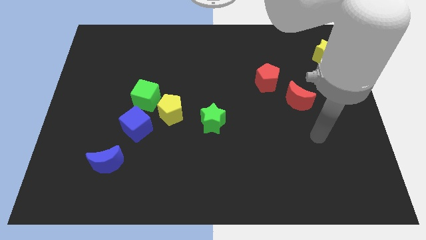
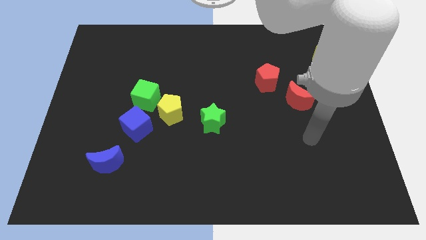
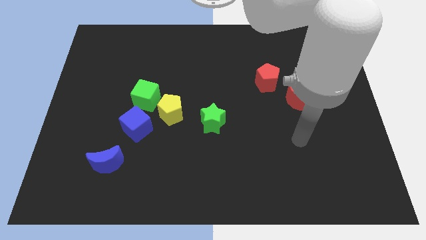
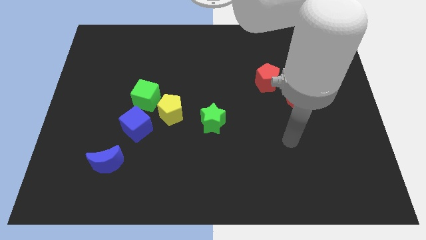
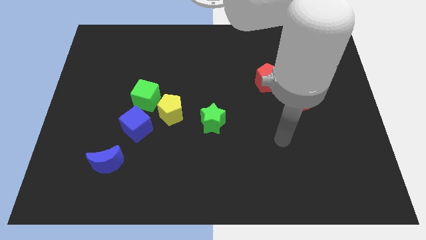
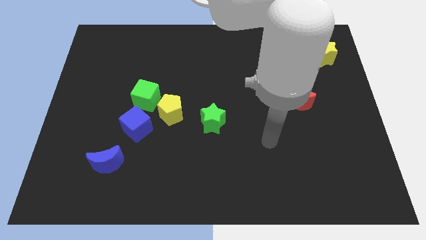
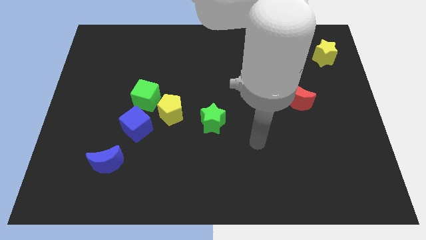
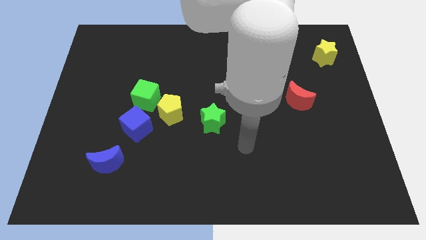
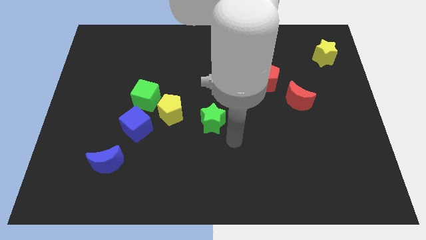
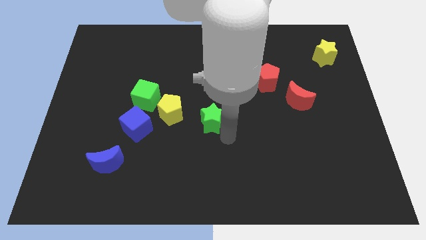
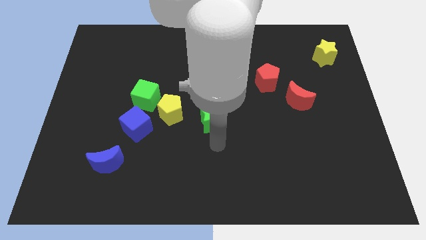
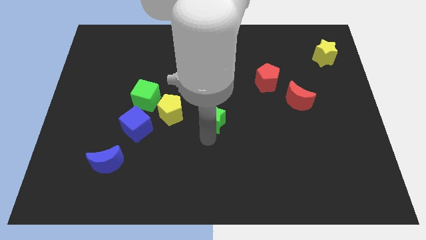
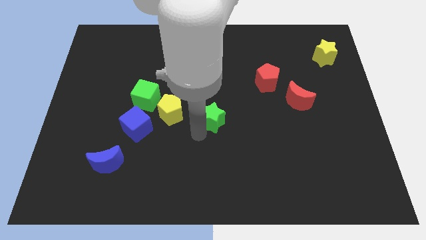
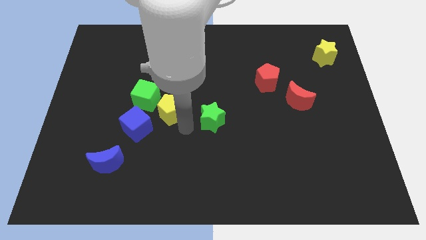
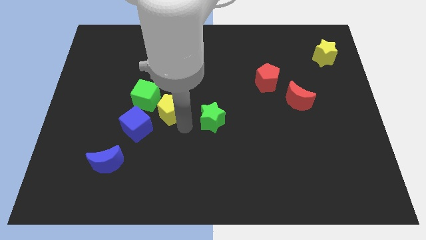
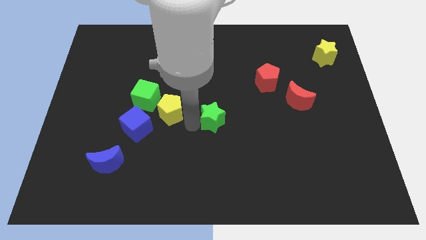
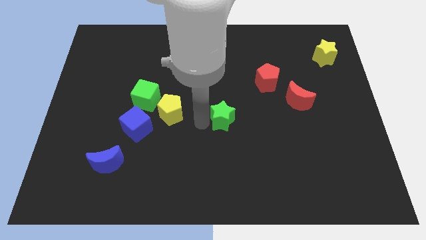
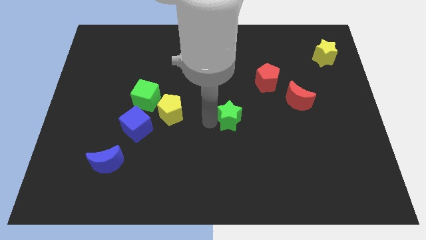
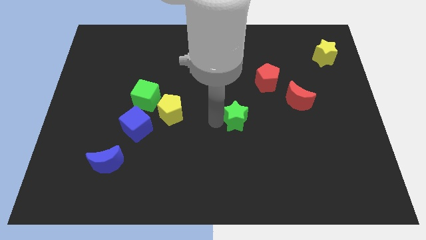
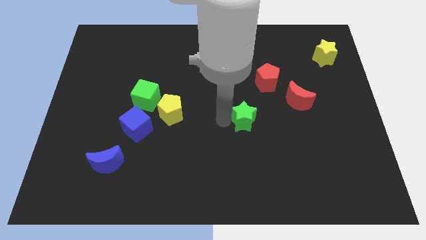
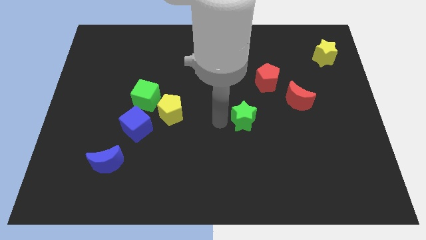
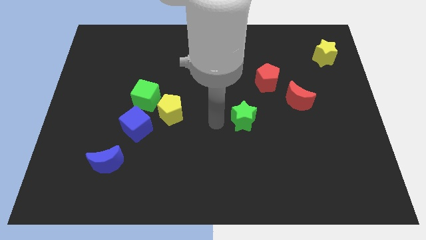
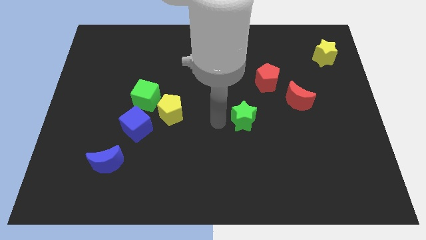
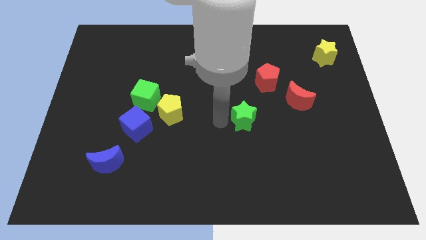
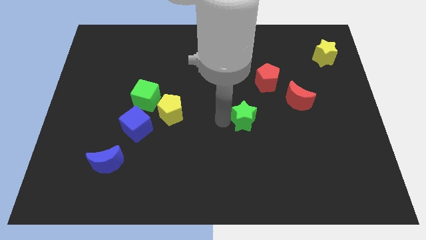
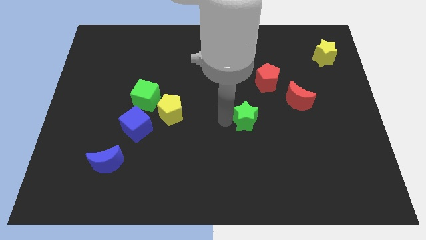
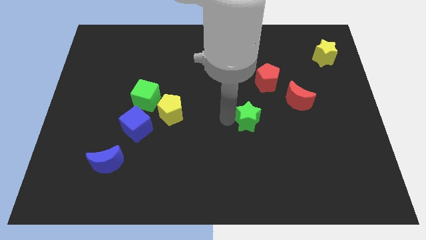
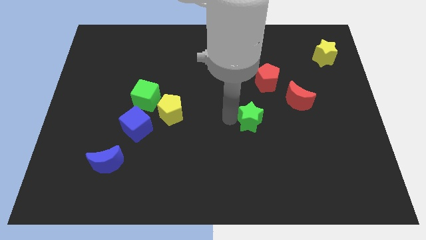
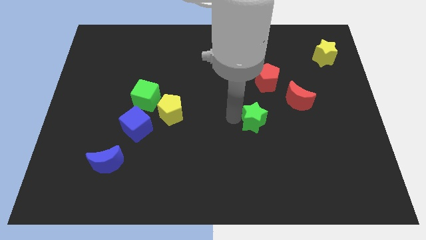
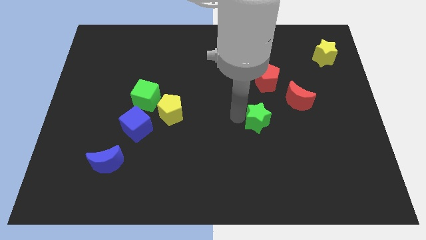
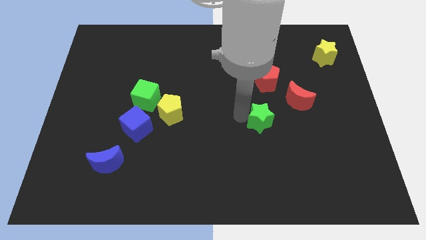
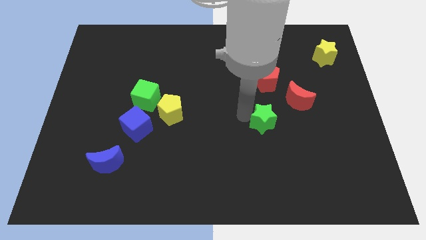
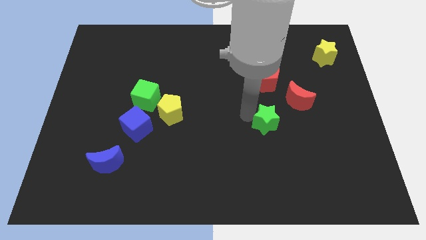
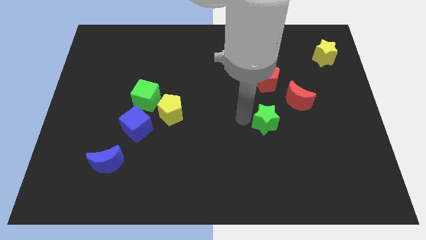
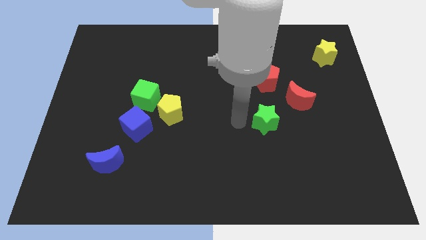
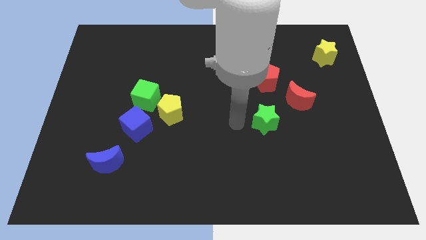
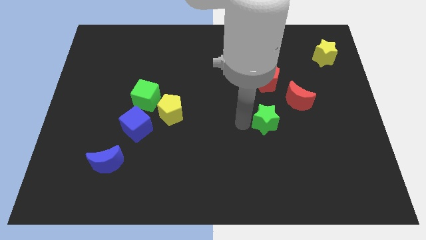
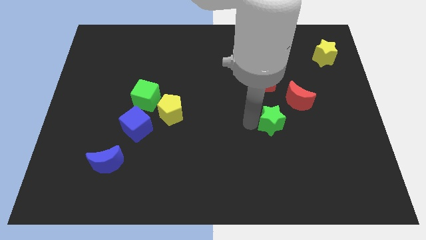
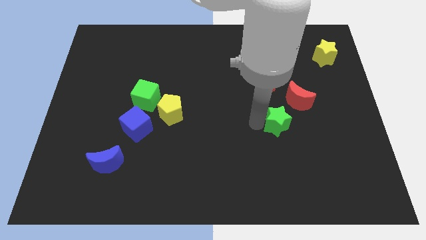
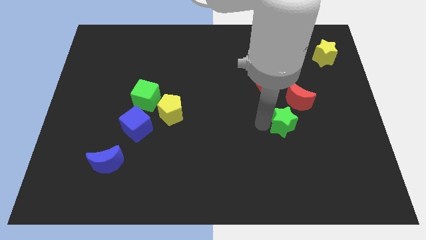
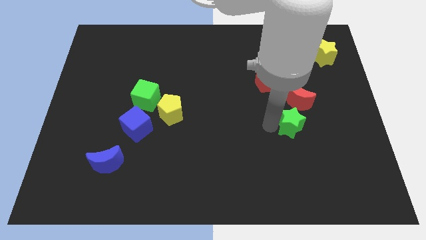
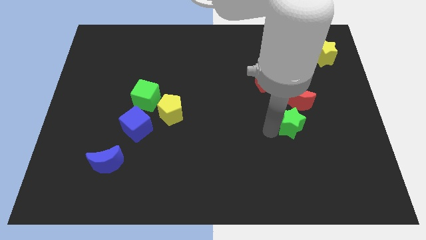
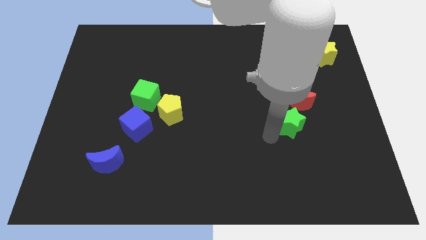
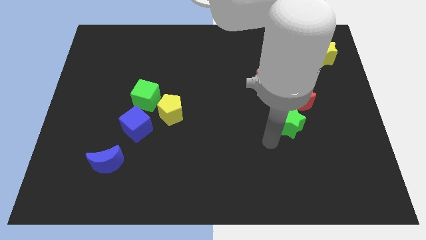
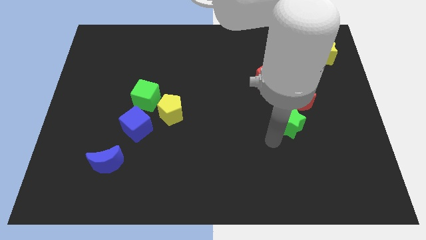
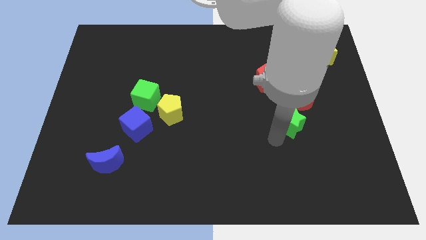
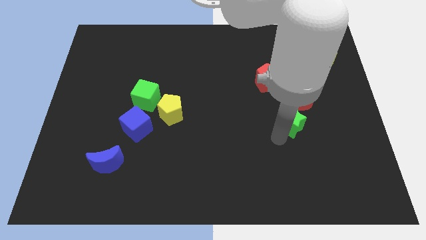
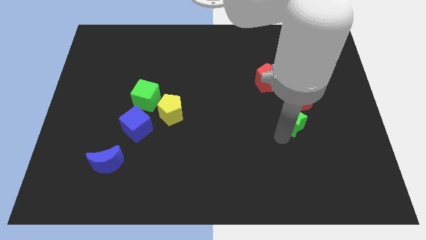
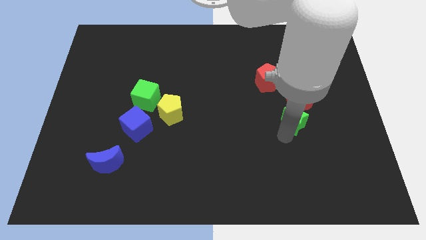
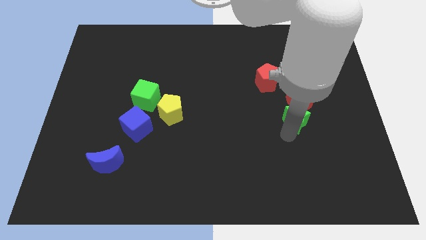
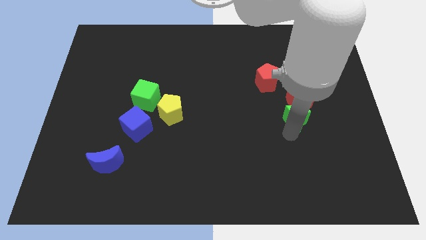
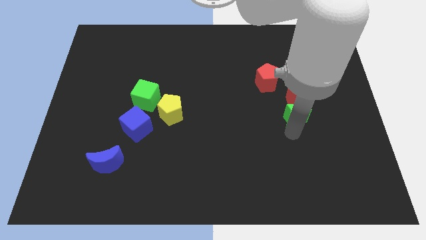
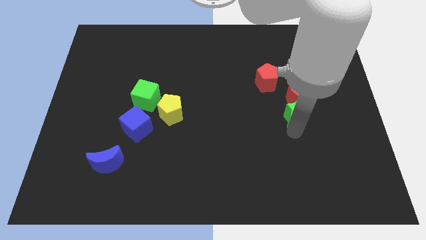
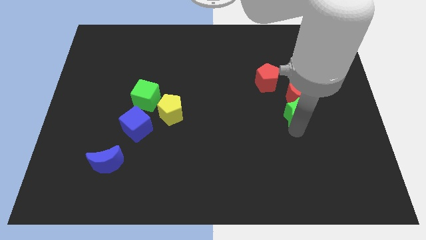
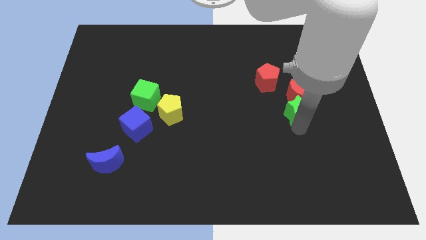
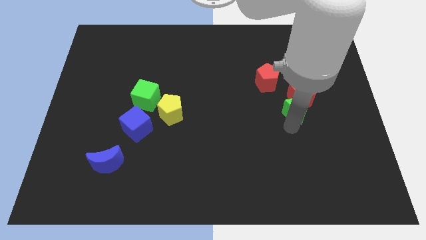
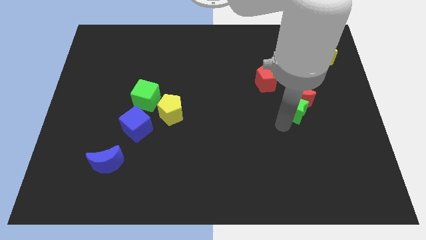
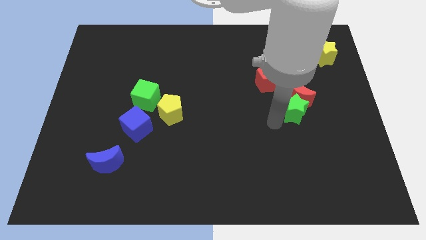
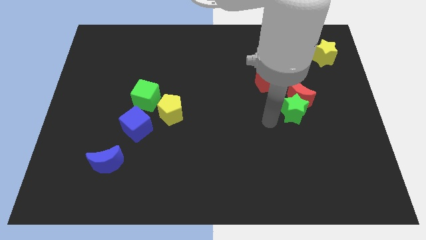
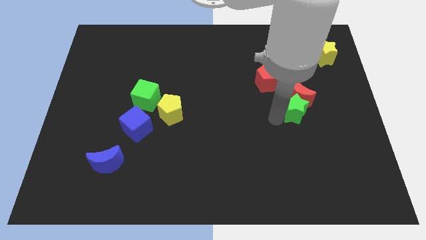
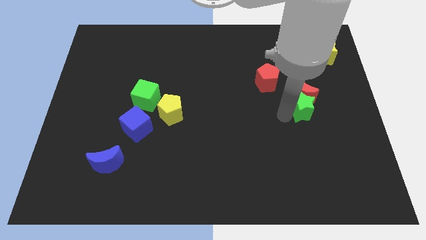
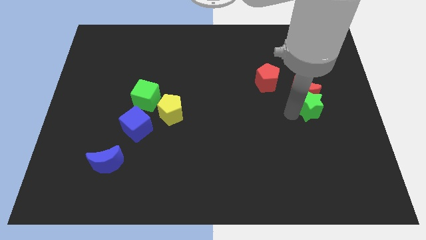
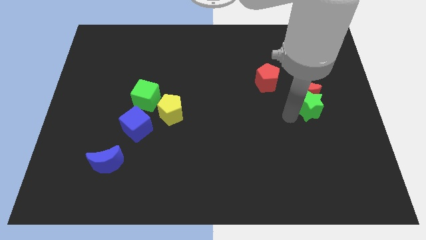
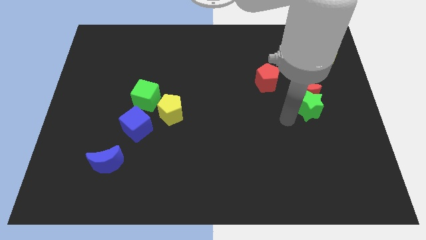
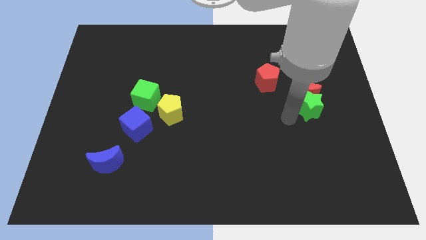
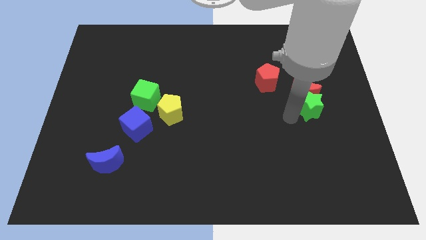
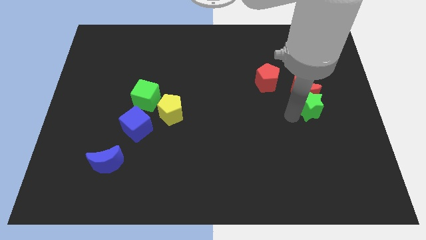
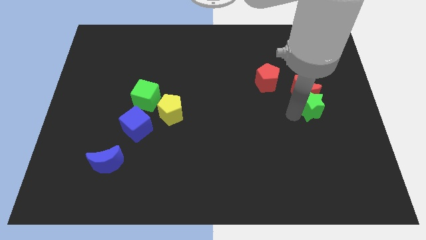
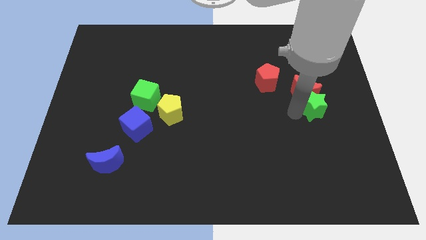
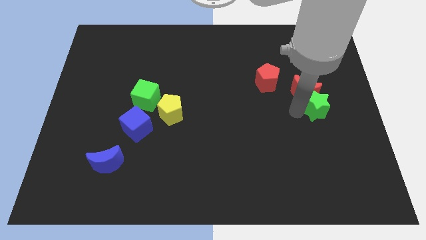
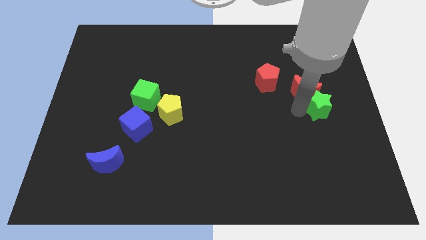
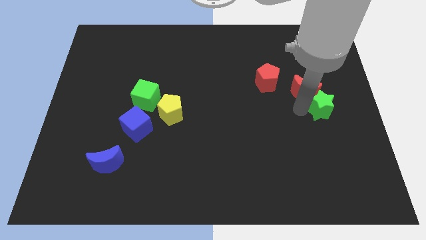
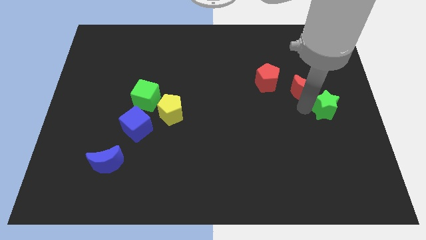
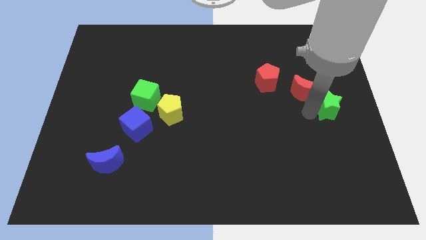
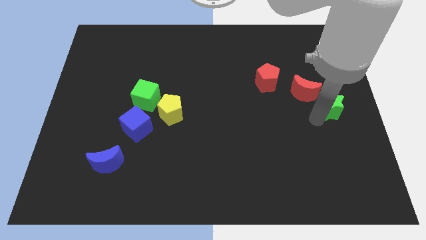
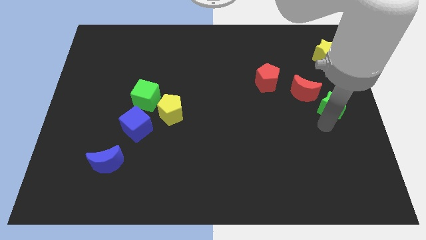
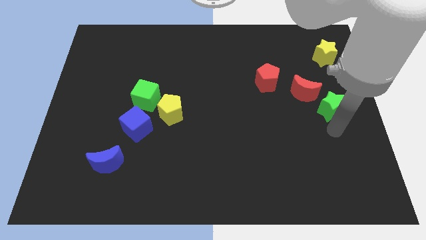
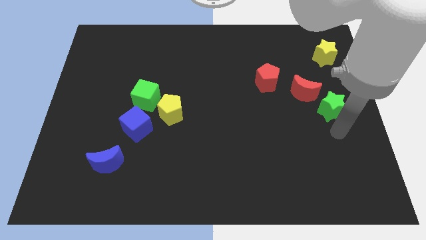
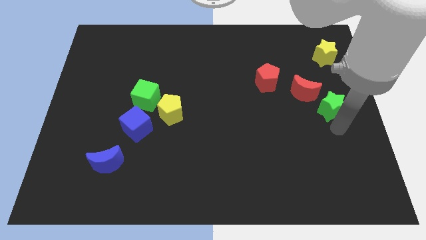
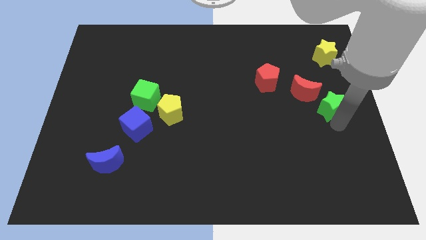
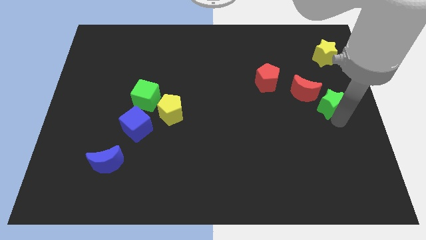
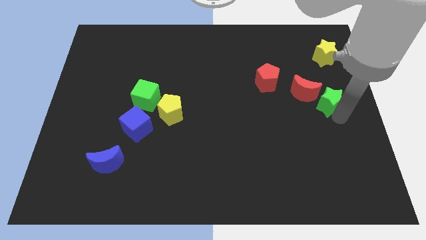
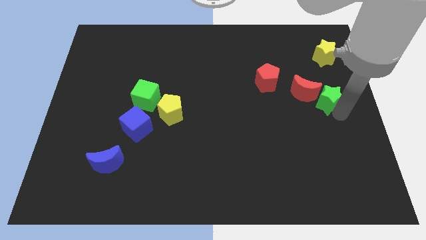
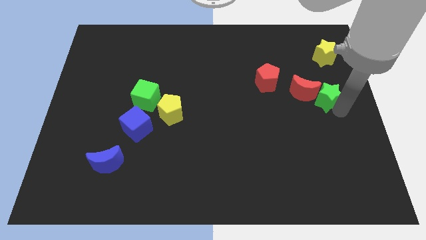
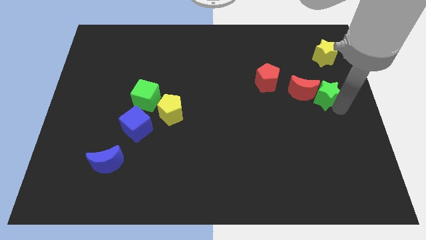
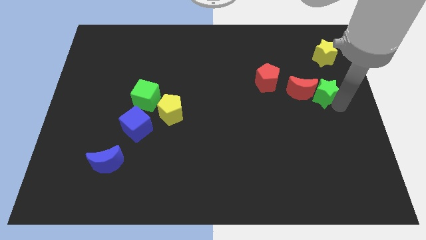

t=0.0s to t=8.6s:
put the green star to the top right of the red moon
